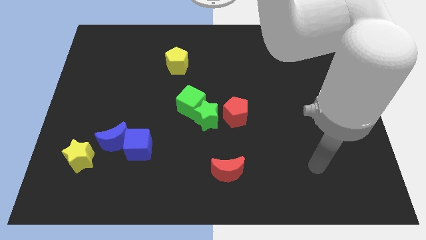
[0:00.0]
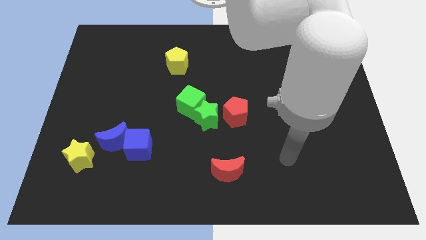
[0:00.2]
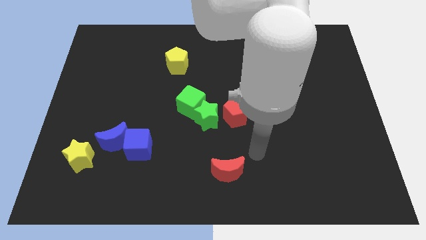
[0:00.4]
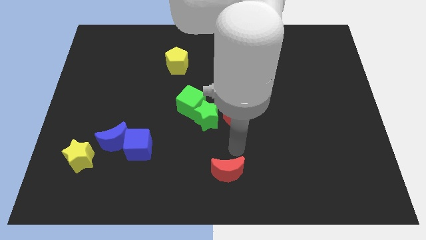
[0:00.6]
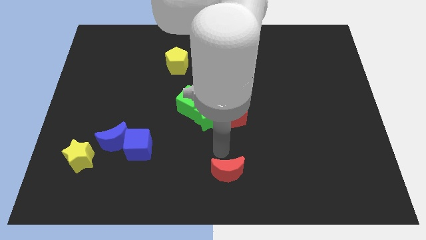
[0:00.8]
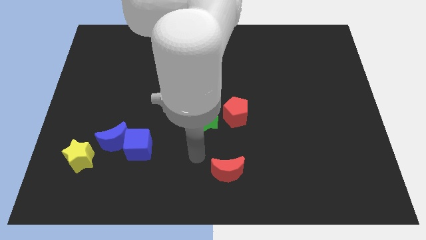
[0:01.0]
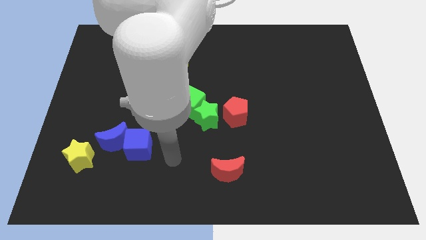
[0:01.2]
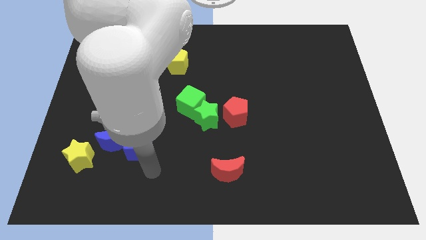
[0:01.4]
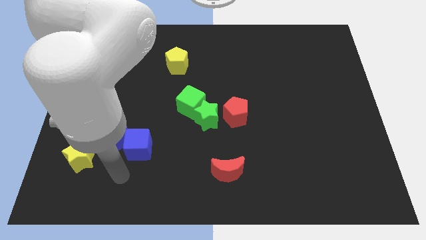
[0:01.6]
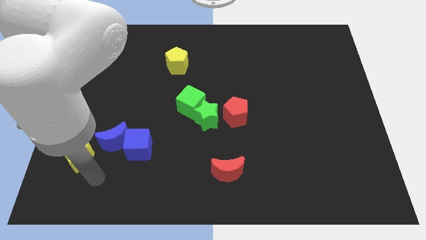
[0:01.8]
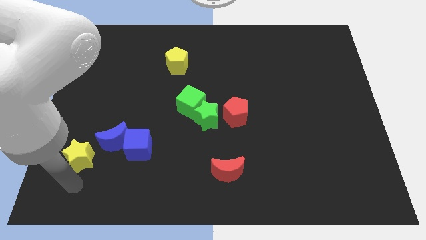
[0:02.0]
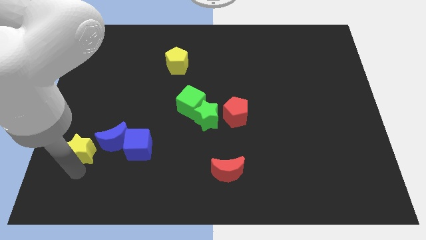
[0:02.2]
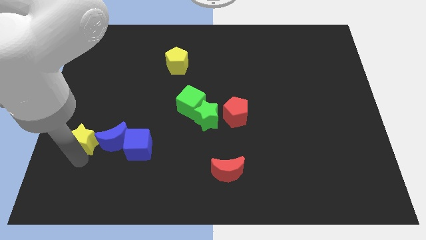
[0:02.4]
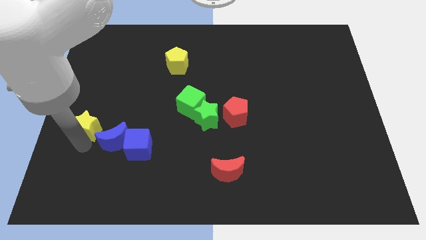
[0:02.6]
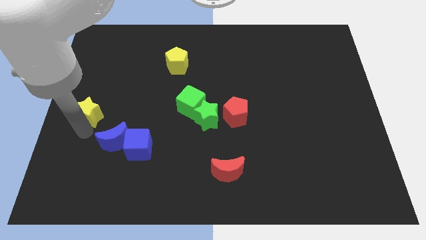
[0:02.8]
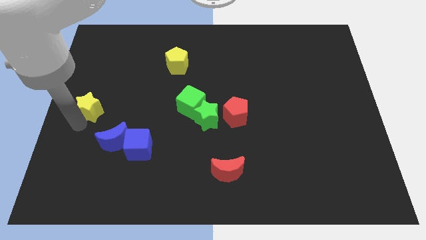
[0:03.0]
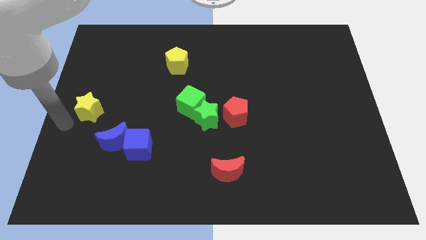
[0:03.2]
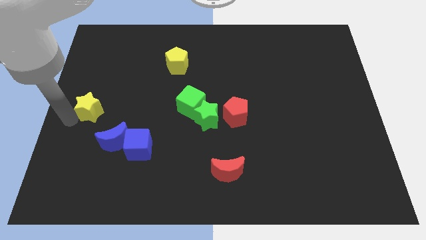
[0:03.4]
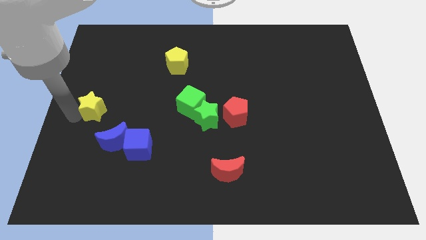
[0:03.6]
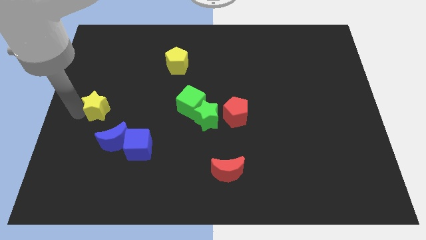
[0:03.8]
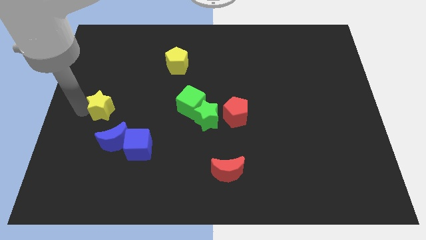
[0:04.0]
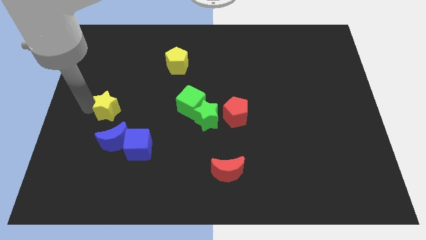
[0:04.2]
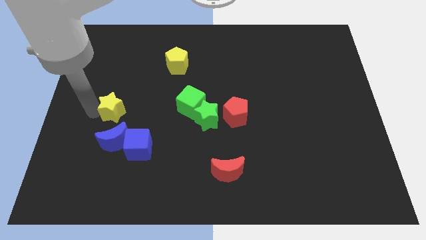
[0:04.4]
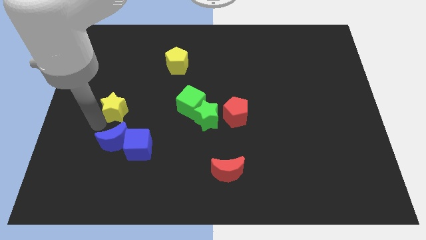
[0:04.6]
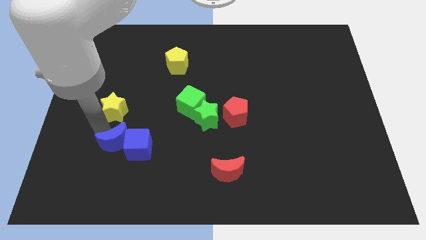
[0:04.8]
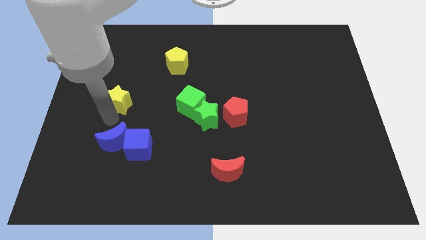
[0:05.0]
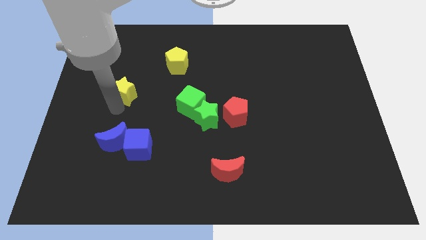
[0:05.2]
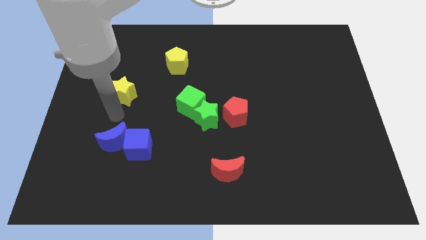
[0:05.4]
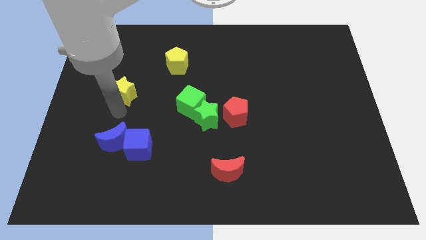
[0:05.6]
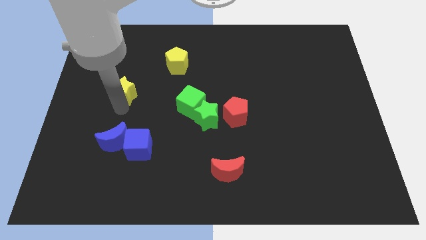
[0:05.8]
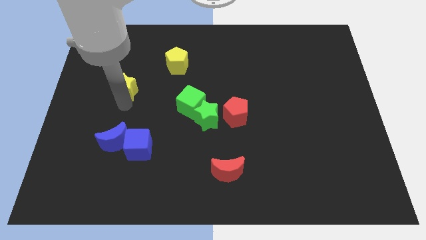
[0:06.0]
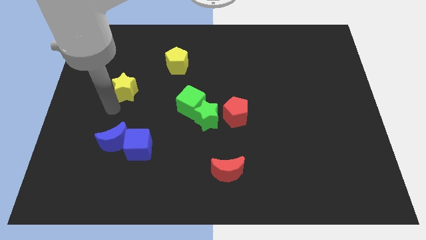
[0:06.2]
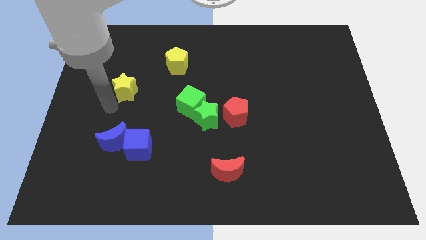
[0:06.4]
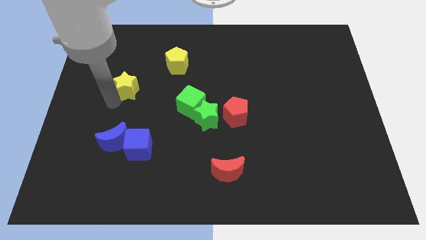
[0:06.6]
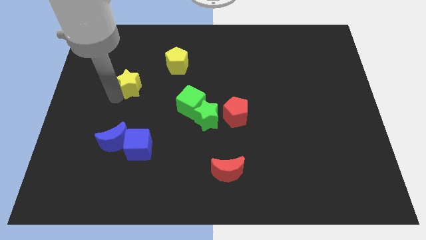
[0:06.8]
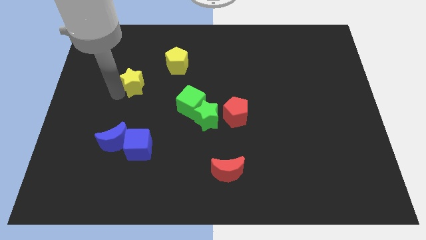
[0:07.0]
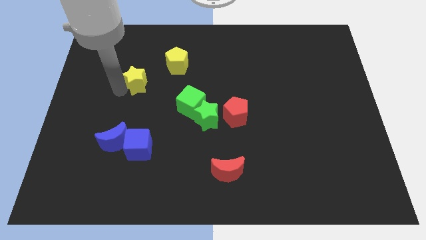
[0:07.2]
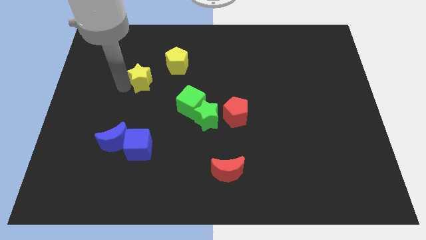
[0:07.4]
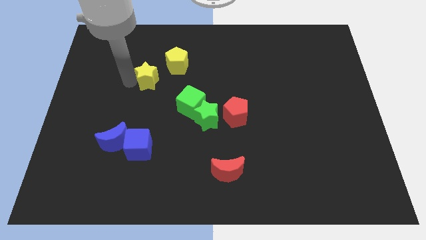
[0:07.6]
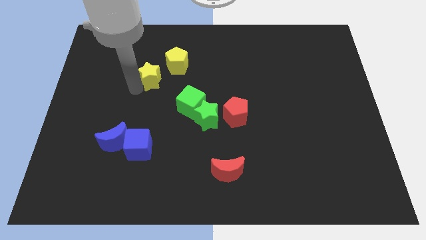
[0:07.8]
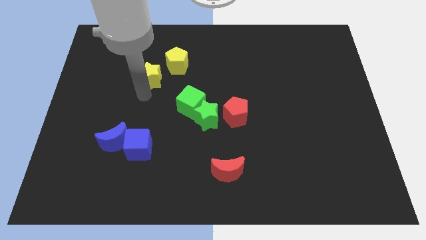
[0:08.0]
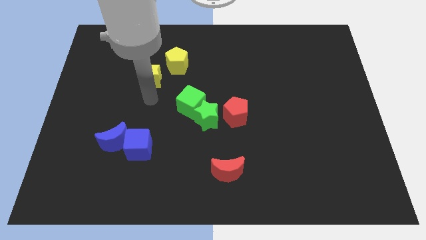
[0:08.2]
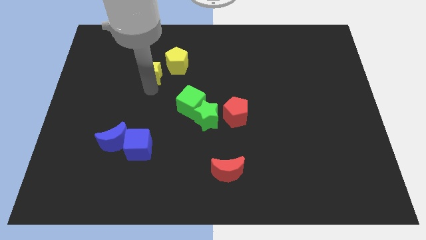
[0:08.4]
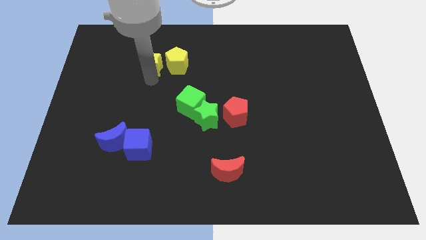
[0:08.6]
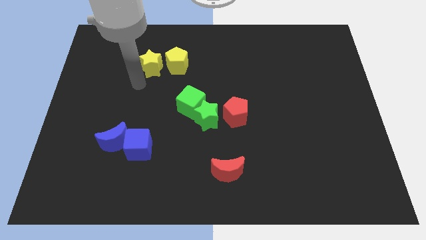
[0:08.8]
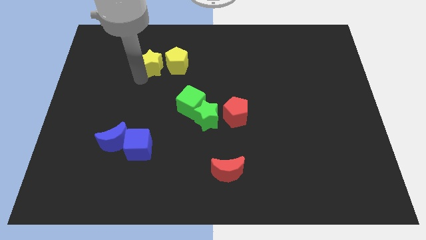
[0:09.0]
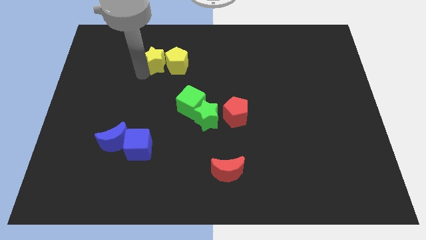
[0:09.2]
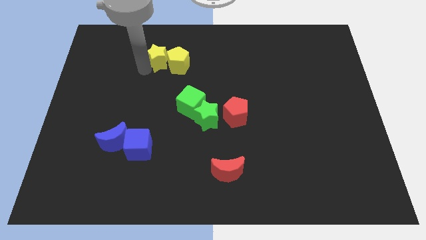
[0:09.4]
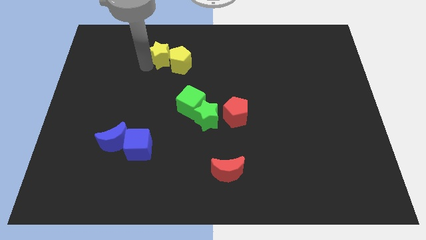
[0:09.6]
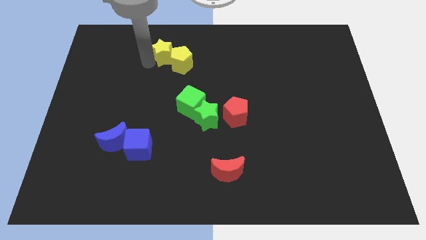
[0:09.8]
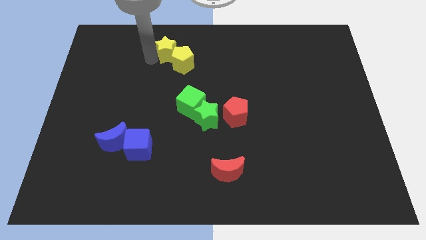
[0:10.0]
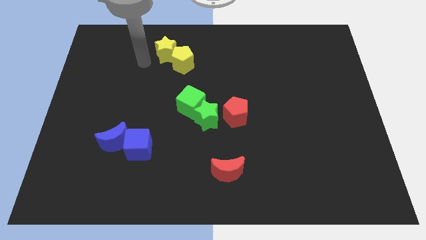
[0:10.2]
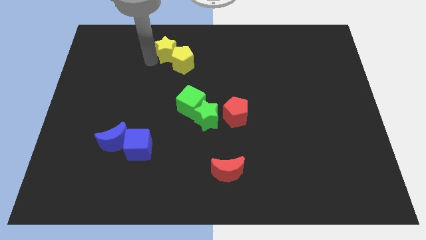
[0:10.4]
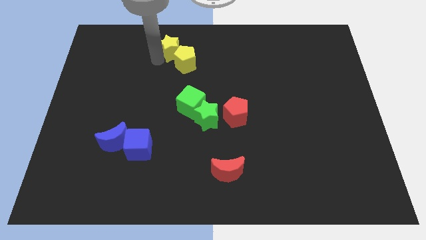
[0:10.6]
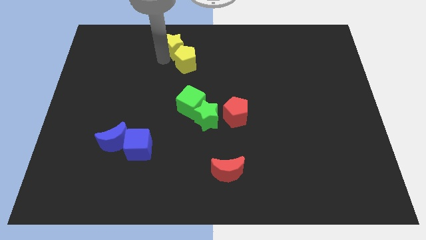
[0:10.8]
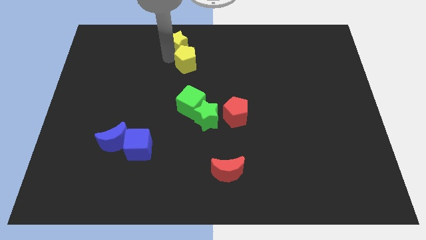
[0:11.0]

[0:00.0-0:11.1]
move the yellow star to the top side

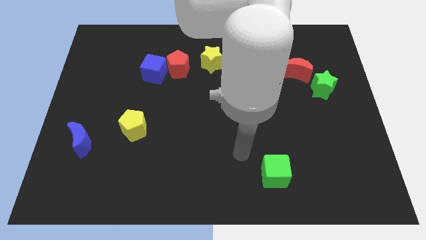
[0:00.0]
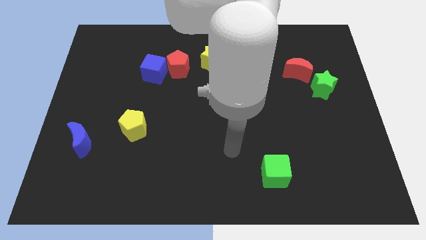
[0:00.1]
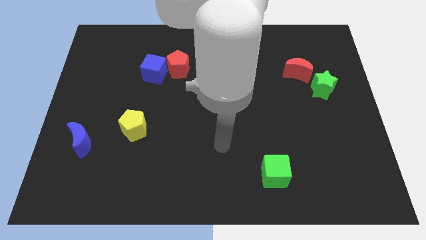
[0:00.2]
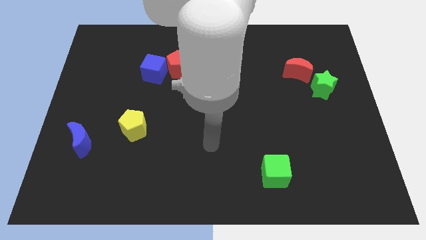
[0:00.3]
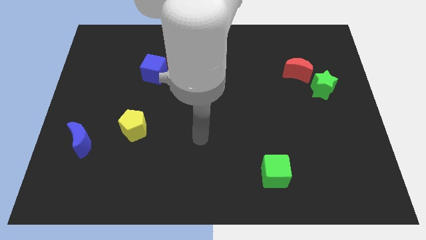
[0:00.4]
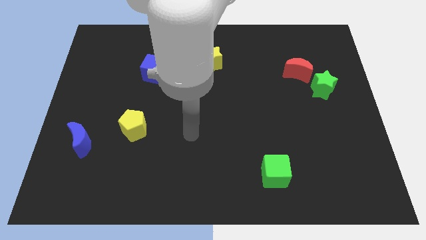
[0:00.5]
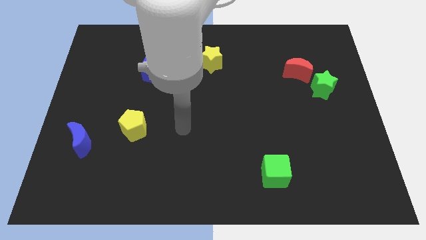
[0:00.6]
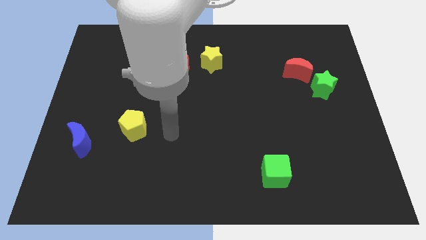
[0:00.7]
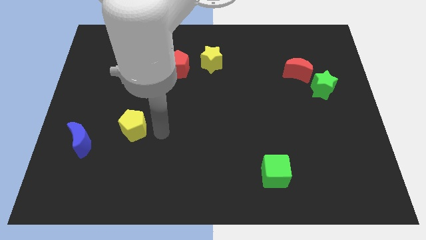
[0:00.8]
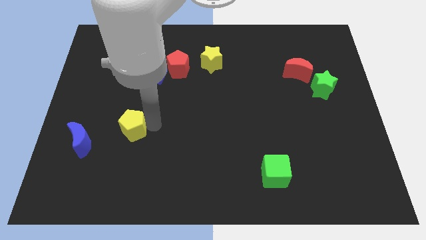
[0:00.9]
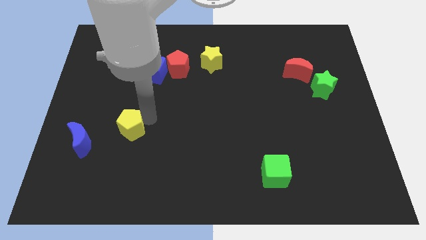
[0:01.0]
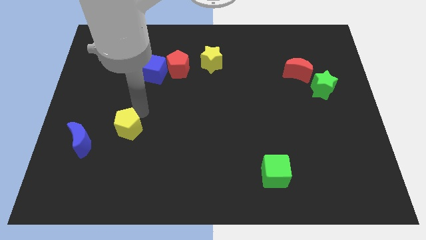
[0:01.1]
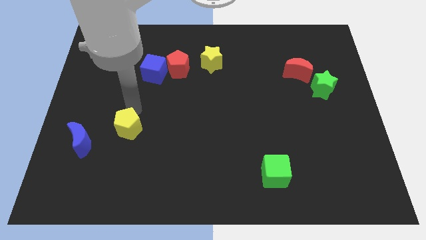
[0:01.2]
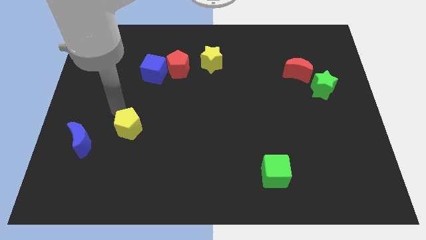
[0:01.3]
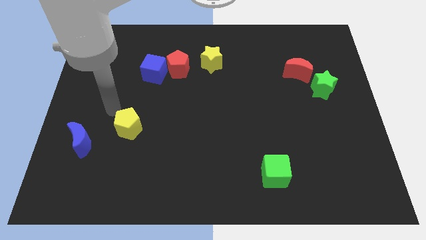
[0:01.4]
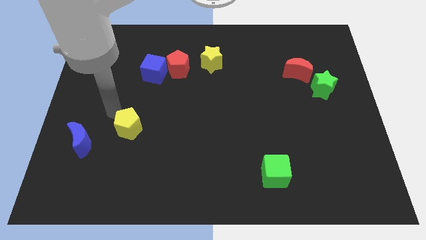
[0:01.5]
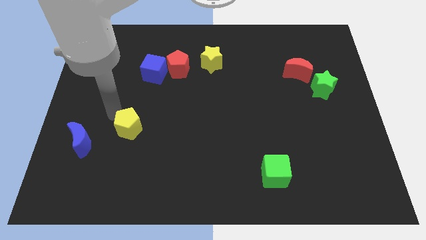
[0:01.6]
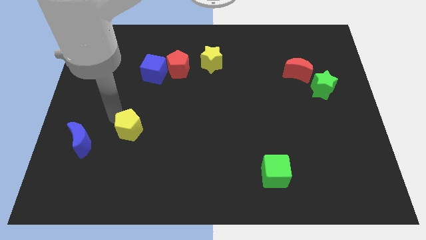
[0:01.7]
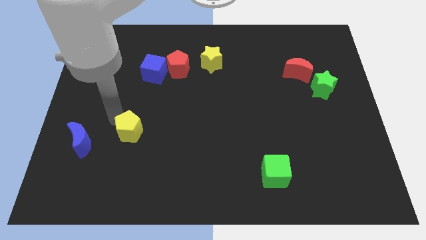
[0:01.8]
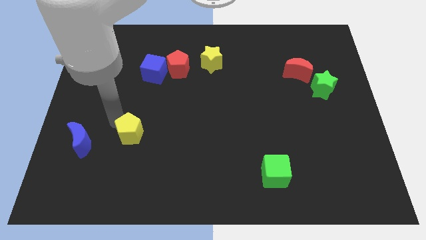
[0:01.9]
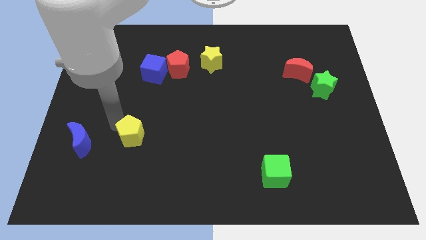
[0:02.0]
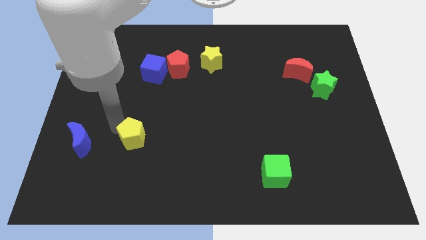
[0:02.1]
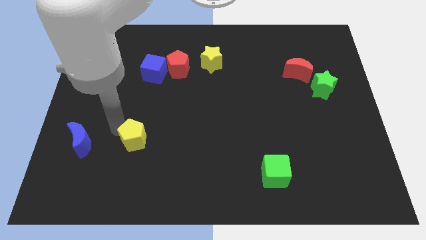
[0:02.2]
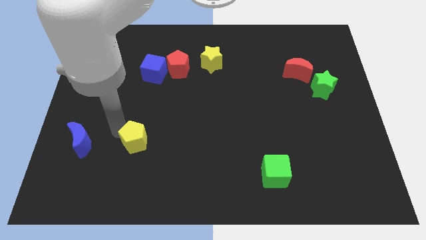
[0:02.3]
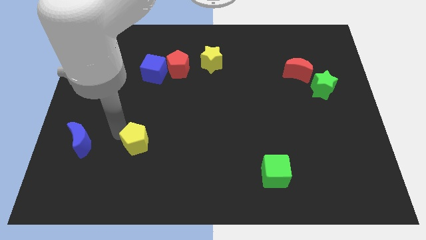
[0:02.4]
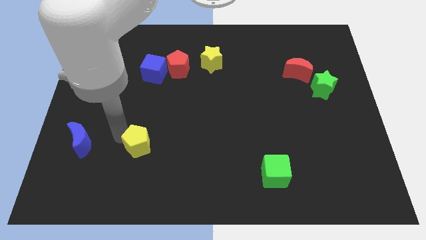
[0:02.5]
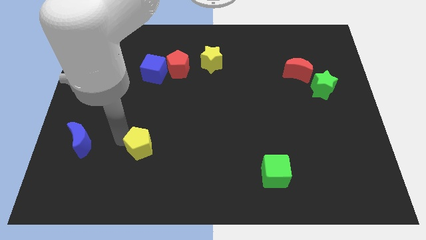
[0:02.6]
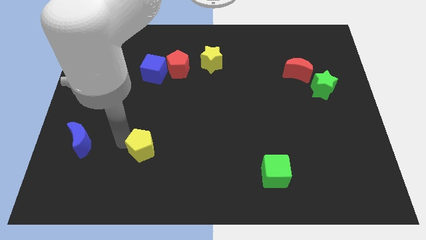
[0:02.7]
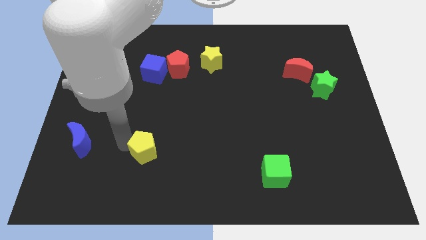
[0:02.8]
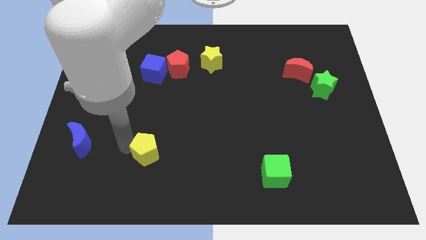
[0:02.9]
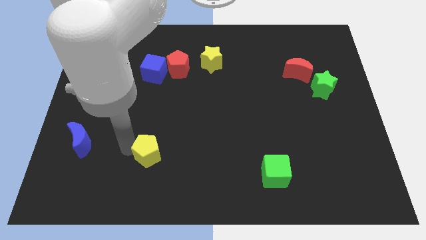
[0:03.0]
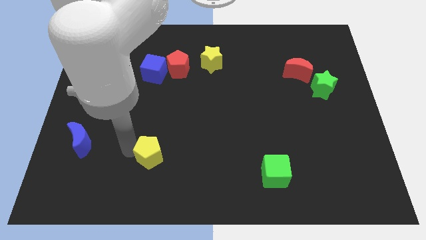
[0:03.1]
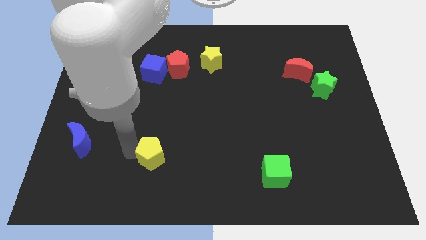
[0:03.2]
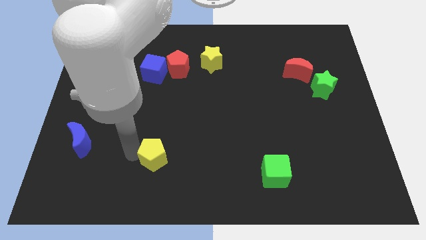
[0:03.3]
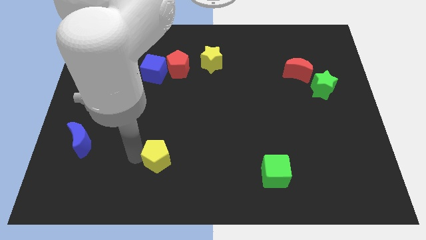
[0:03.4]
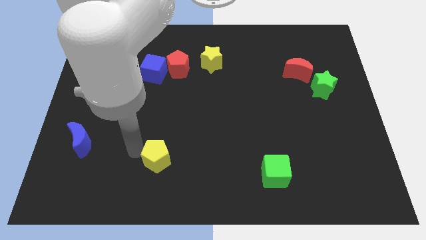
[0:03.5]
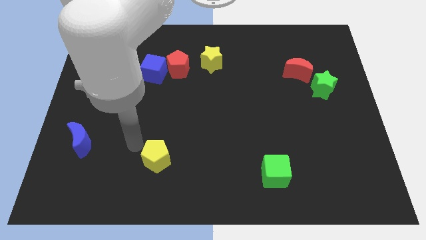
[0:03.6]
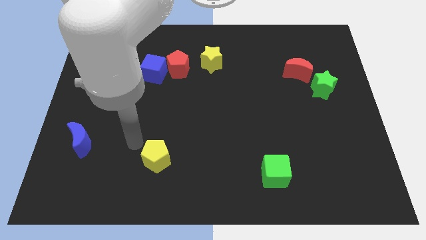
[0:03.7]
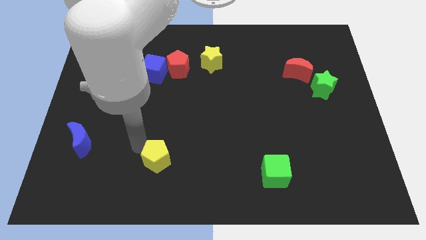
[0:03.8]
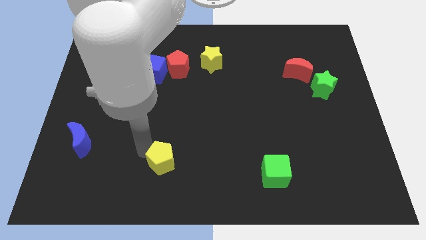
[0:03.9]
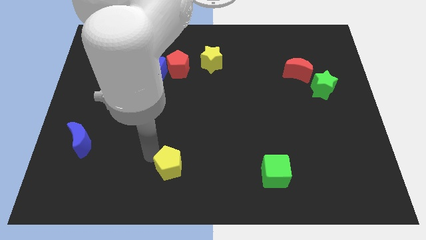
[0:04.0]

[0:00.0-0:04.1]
slide the yellow pentagon to the bottom side
